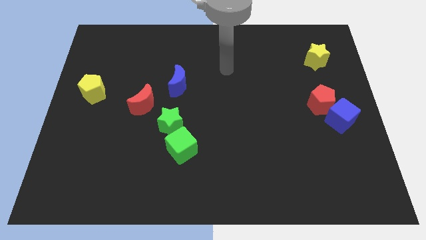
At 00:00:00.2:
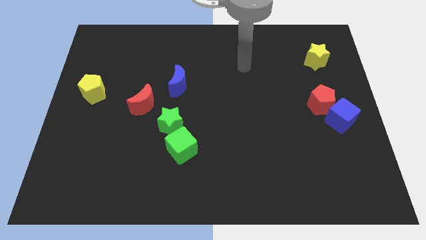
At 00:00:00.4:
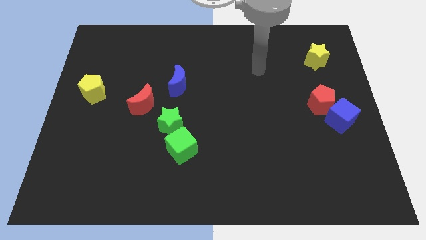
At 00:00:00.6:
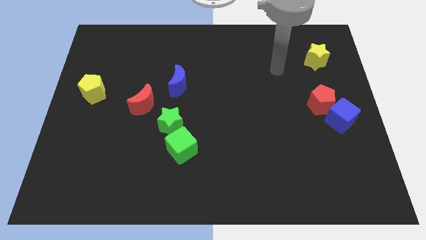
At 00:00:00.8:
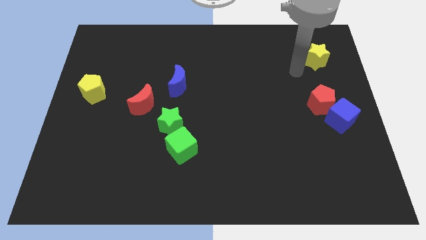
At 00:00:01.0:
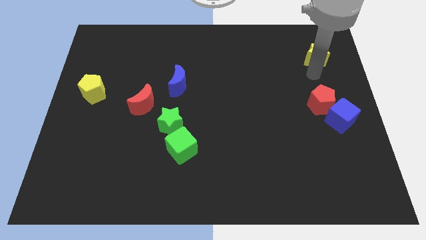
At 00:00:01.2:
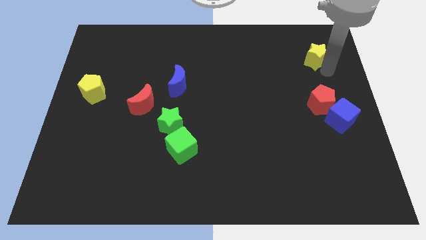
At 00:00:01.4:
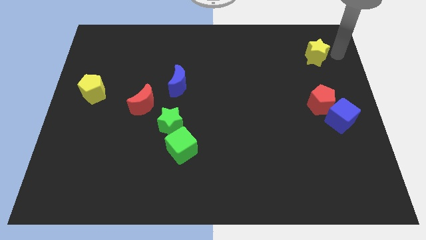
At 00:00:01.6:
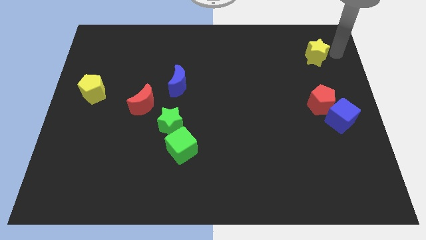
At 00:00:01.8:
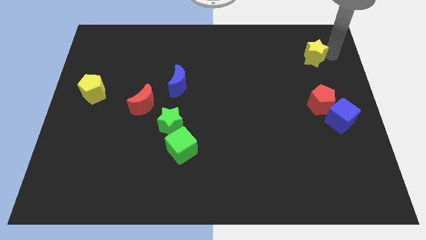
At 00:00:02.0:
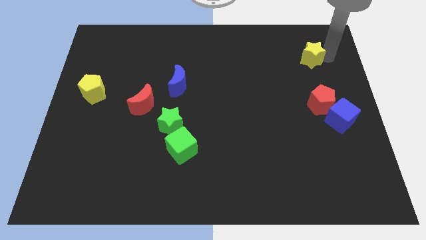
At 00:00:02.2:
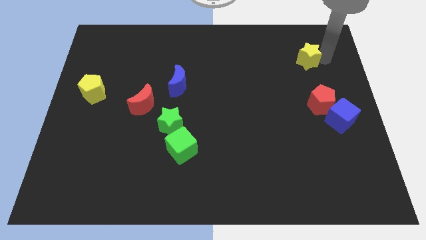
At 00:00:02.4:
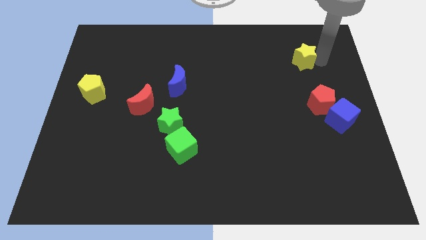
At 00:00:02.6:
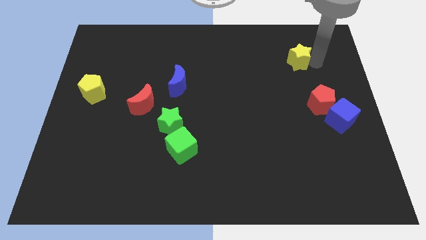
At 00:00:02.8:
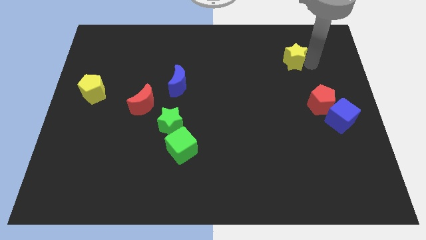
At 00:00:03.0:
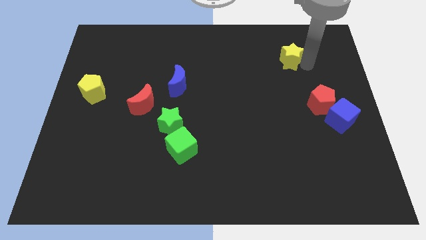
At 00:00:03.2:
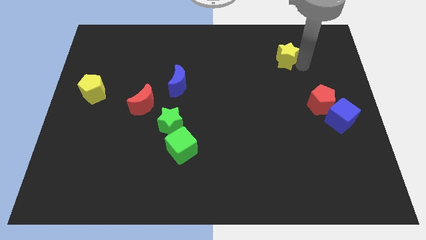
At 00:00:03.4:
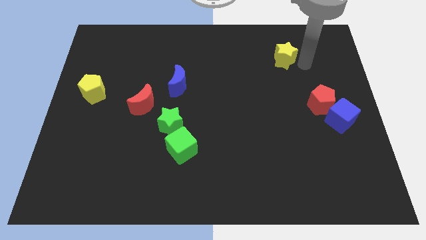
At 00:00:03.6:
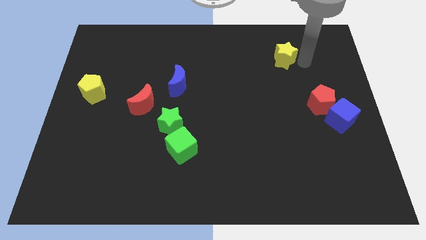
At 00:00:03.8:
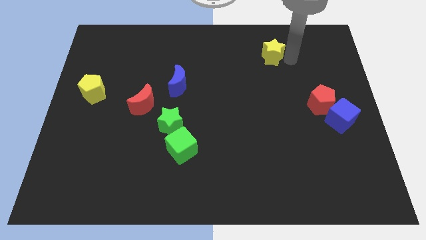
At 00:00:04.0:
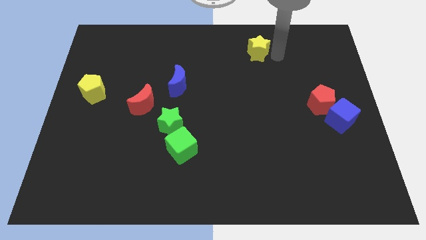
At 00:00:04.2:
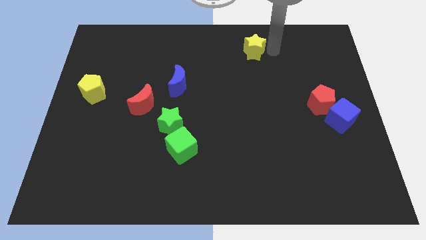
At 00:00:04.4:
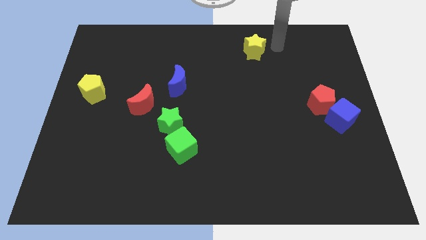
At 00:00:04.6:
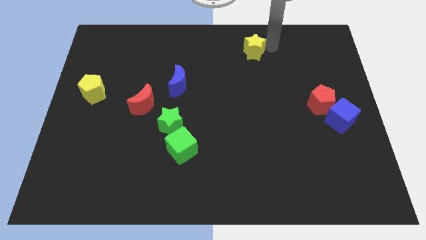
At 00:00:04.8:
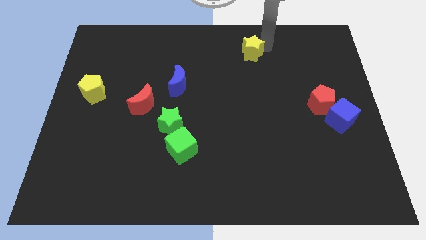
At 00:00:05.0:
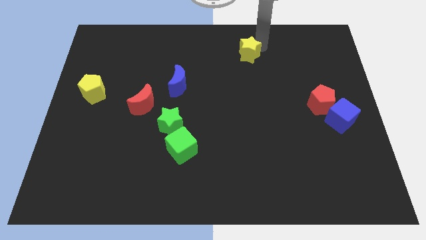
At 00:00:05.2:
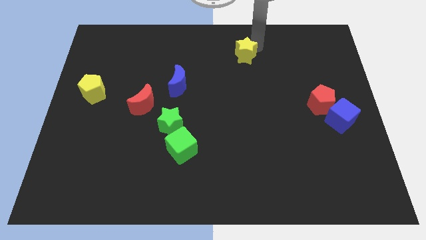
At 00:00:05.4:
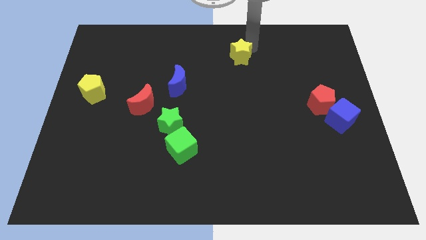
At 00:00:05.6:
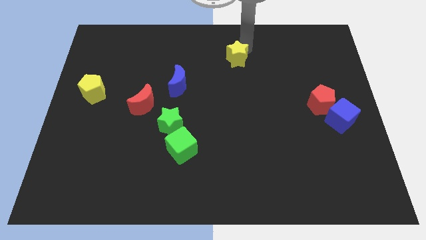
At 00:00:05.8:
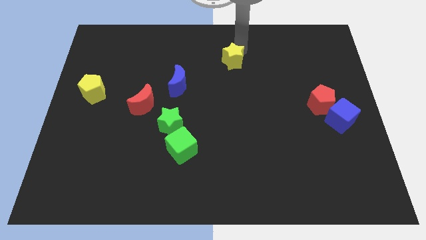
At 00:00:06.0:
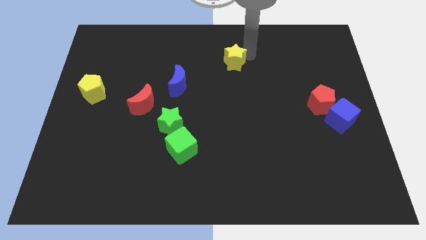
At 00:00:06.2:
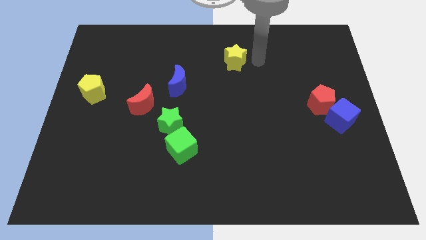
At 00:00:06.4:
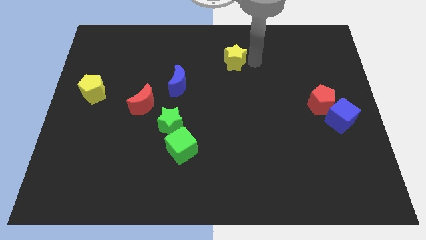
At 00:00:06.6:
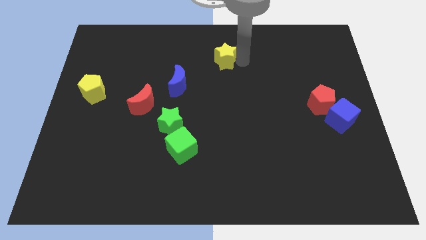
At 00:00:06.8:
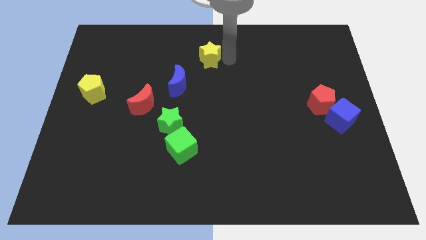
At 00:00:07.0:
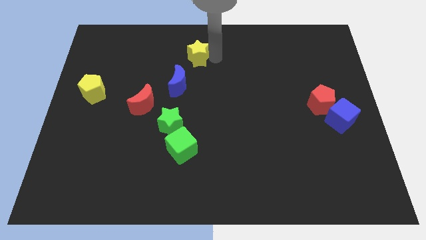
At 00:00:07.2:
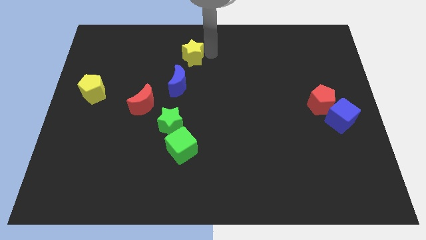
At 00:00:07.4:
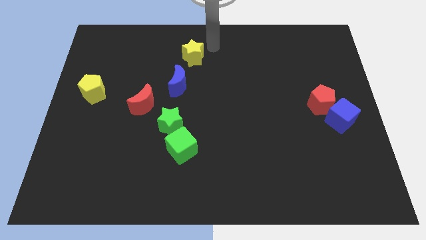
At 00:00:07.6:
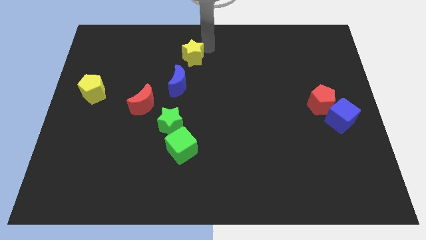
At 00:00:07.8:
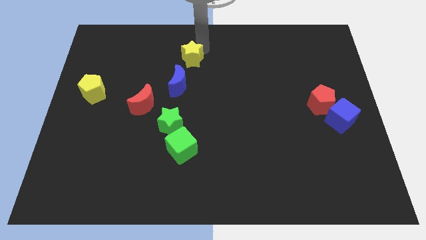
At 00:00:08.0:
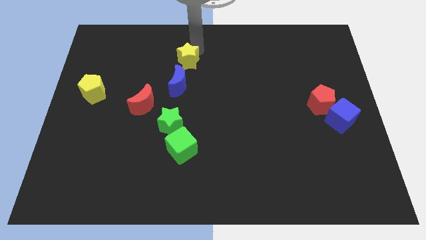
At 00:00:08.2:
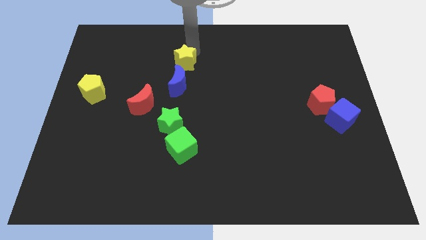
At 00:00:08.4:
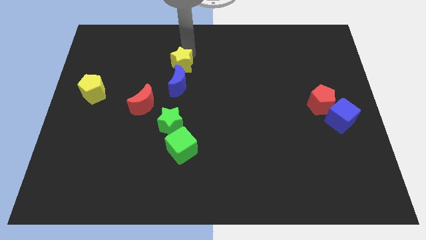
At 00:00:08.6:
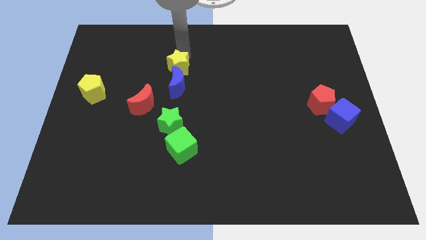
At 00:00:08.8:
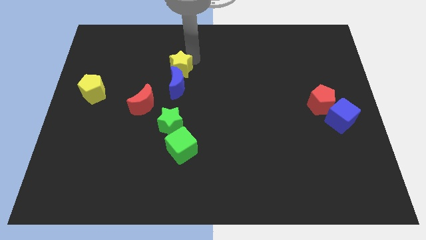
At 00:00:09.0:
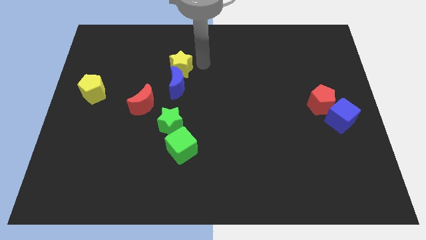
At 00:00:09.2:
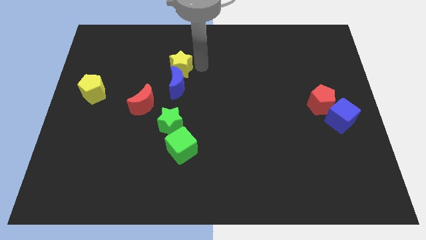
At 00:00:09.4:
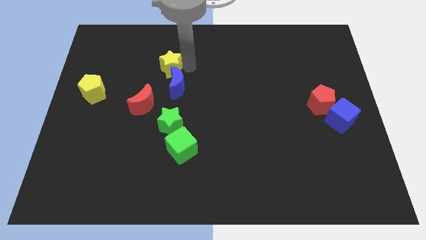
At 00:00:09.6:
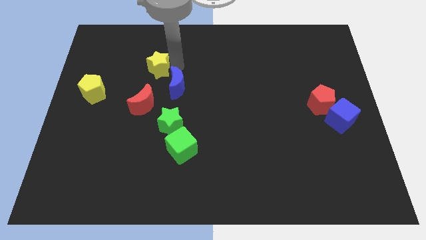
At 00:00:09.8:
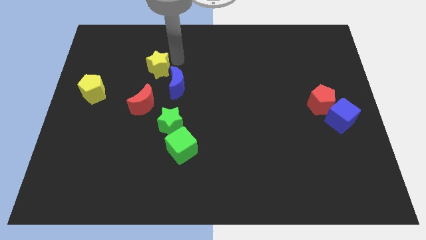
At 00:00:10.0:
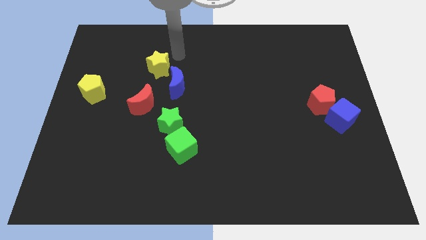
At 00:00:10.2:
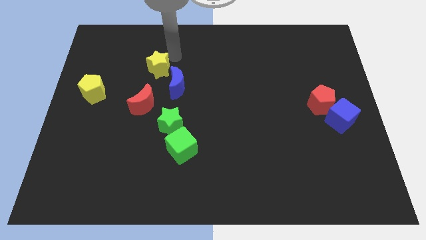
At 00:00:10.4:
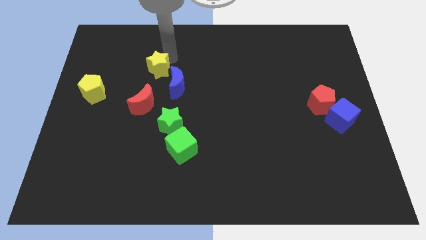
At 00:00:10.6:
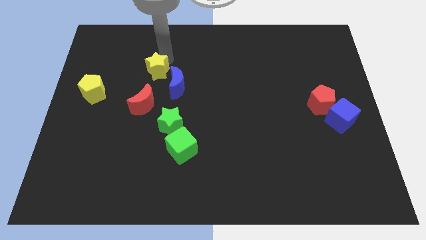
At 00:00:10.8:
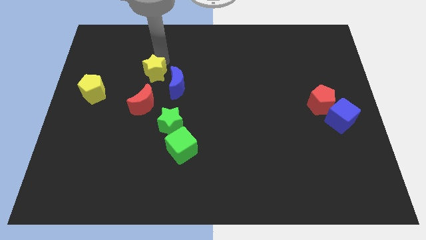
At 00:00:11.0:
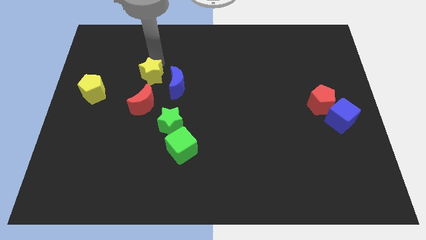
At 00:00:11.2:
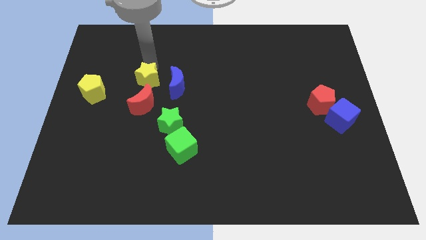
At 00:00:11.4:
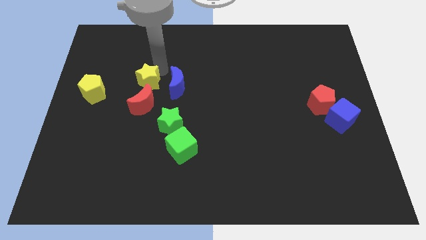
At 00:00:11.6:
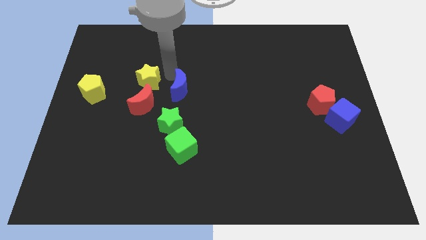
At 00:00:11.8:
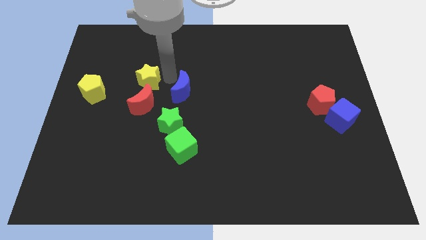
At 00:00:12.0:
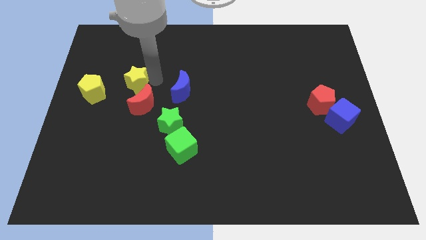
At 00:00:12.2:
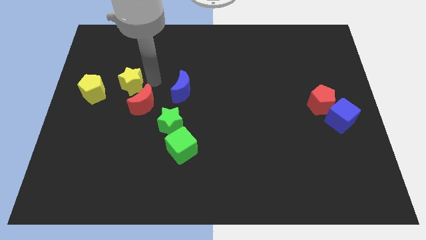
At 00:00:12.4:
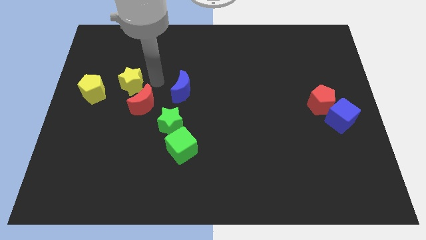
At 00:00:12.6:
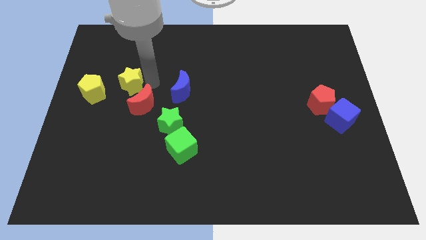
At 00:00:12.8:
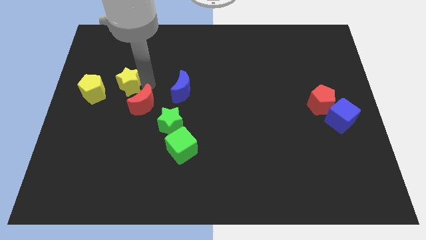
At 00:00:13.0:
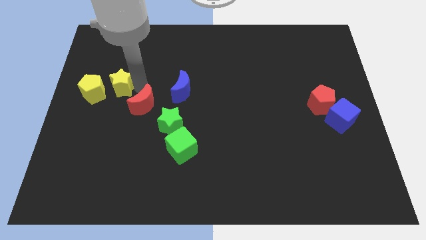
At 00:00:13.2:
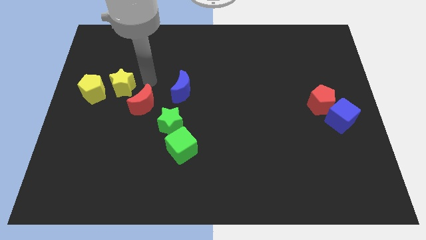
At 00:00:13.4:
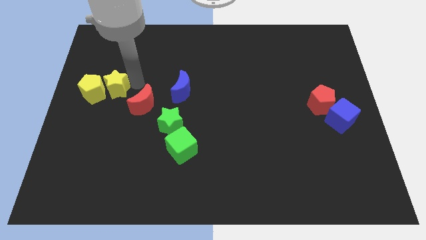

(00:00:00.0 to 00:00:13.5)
push the yellow star towards the yellow pentagon

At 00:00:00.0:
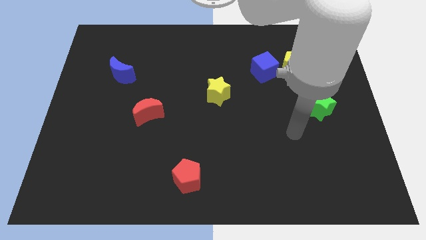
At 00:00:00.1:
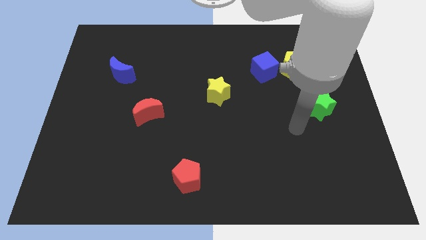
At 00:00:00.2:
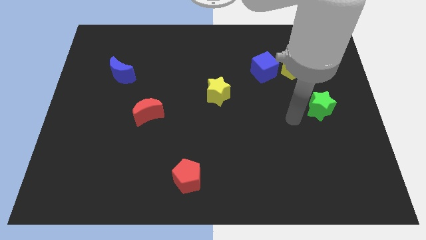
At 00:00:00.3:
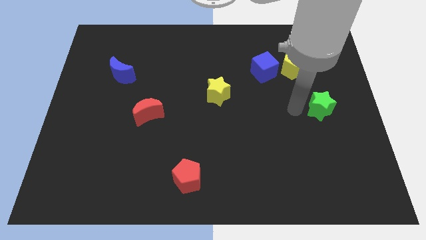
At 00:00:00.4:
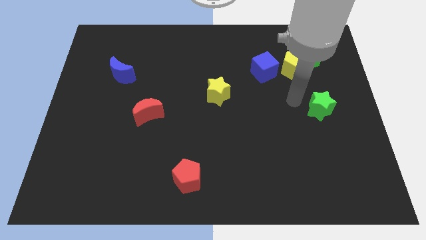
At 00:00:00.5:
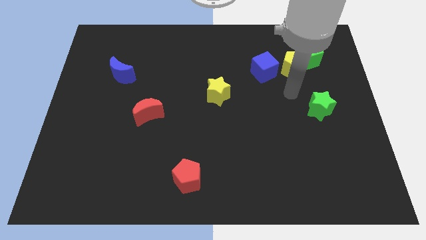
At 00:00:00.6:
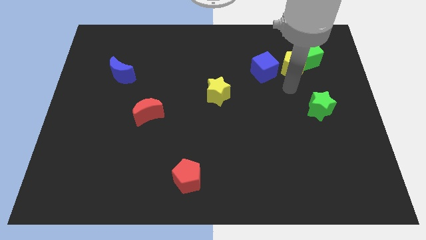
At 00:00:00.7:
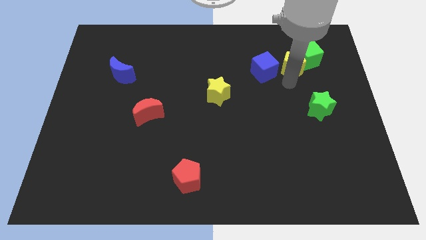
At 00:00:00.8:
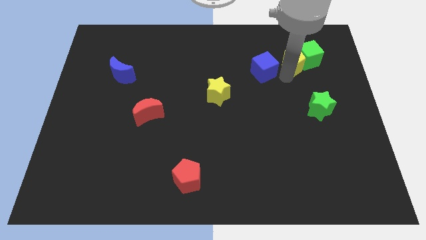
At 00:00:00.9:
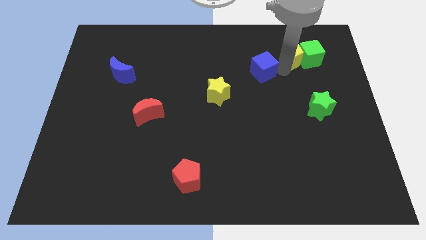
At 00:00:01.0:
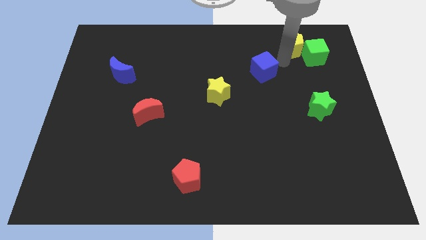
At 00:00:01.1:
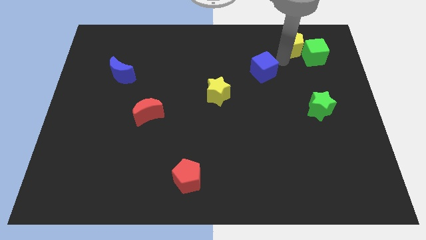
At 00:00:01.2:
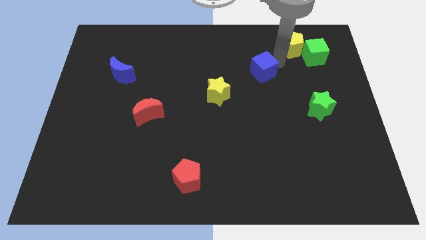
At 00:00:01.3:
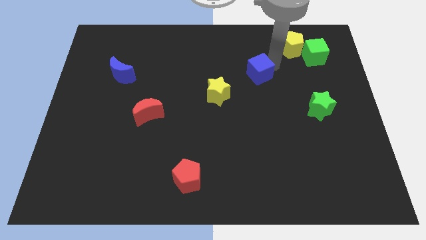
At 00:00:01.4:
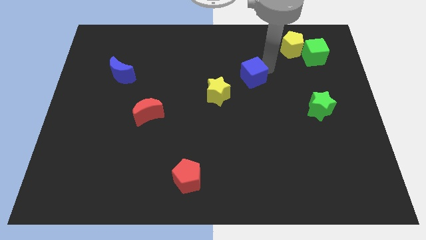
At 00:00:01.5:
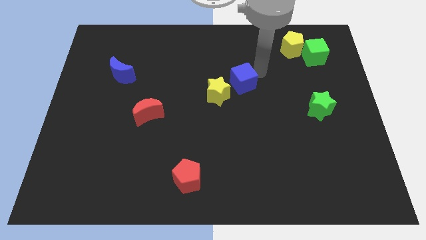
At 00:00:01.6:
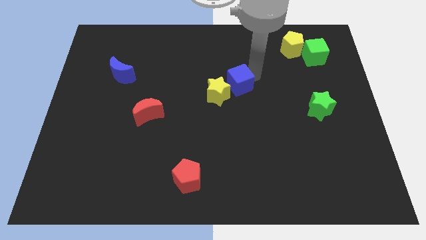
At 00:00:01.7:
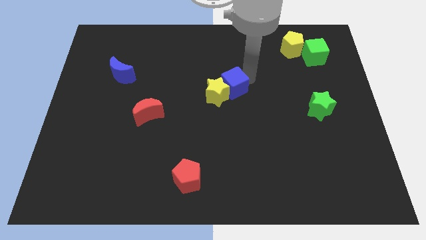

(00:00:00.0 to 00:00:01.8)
put the blue cube towards the yellow star
